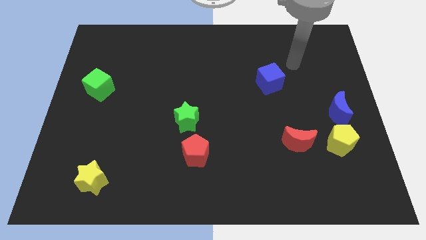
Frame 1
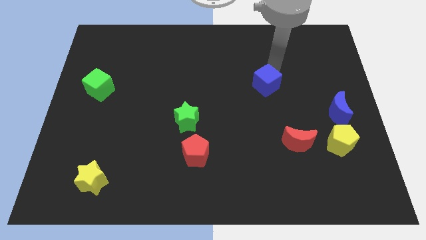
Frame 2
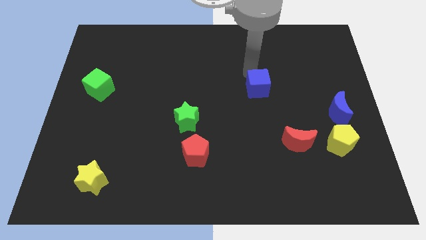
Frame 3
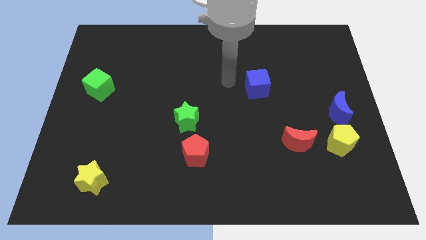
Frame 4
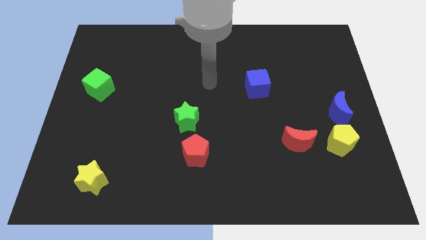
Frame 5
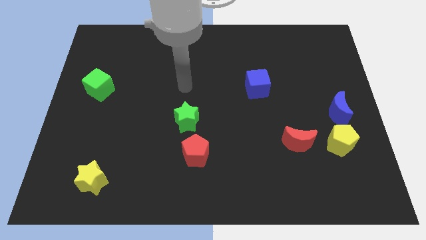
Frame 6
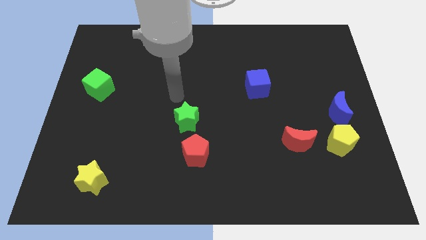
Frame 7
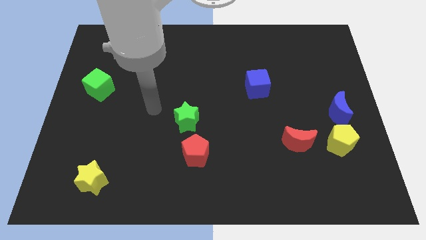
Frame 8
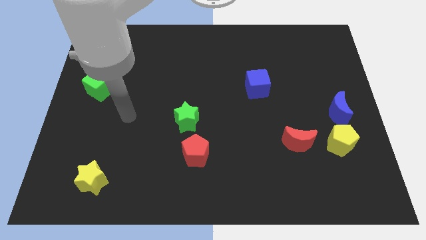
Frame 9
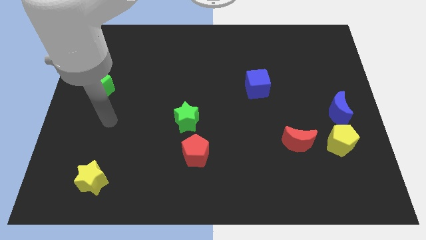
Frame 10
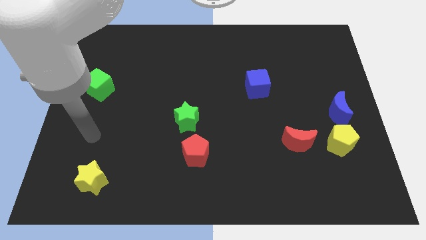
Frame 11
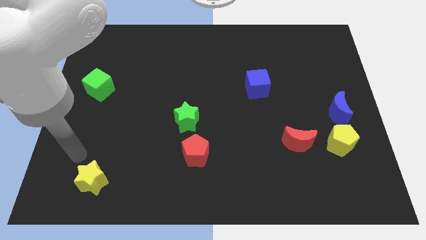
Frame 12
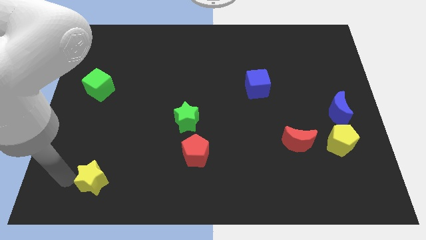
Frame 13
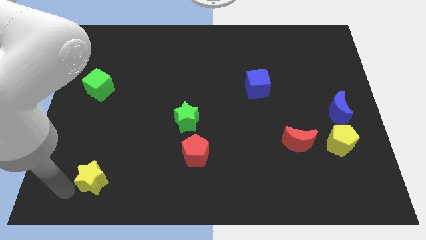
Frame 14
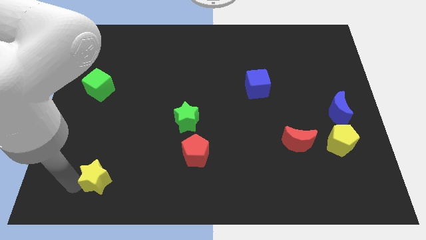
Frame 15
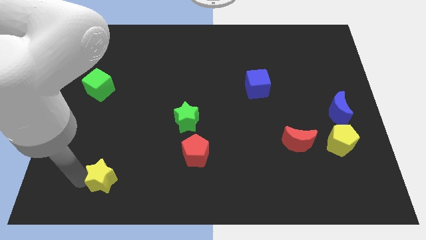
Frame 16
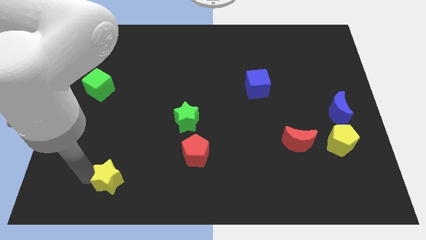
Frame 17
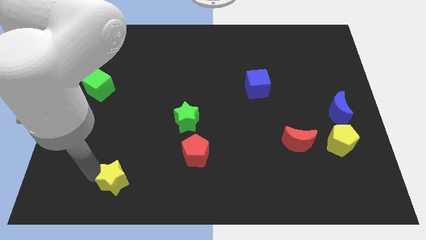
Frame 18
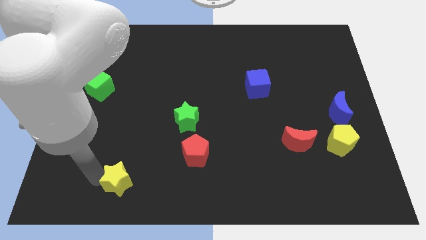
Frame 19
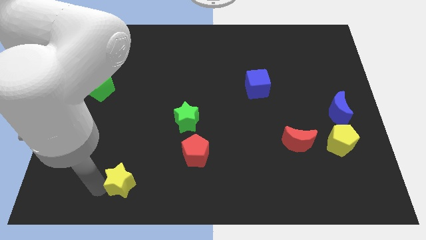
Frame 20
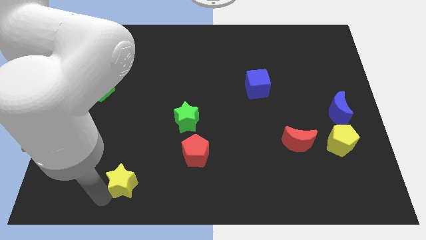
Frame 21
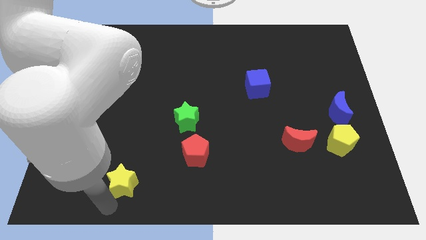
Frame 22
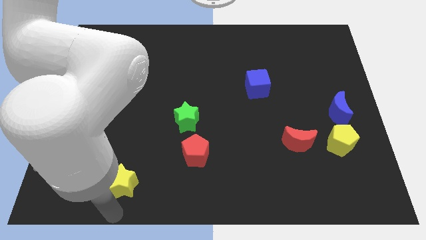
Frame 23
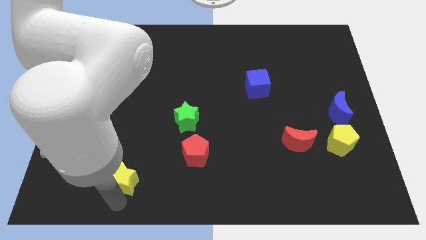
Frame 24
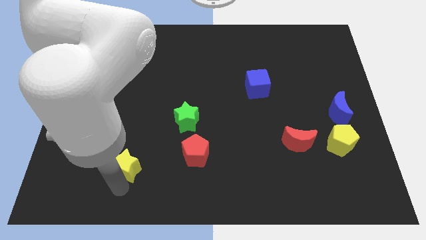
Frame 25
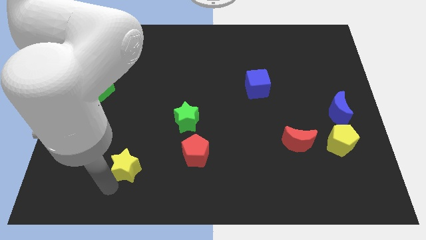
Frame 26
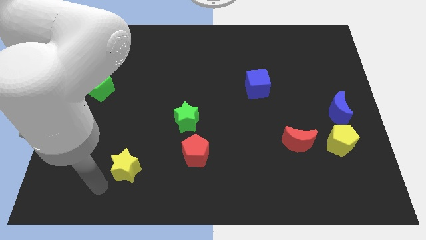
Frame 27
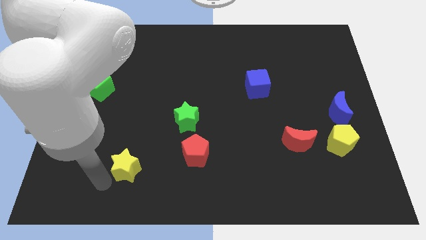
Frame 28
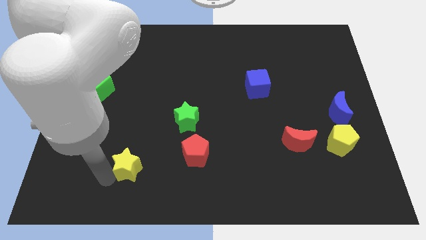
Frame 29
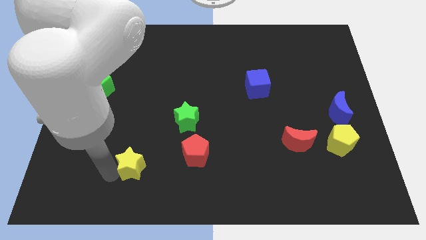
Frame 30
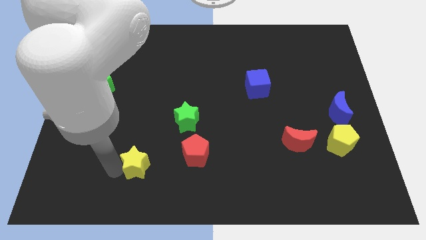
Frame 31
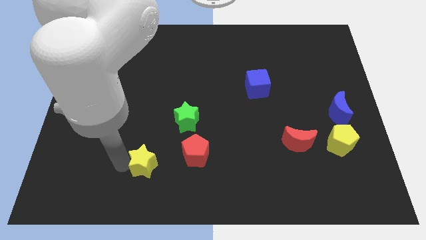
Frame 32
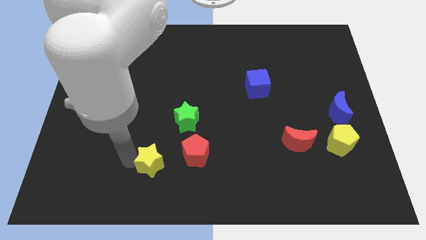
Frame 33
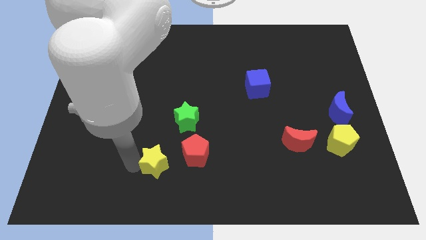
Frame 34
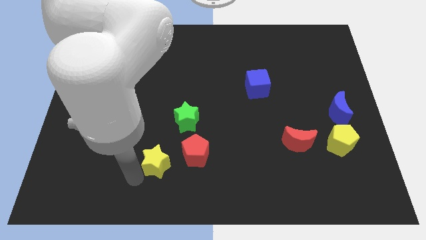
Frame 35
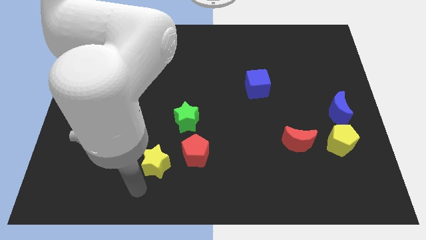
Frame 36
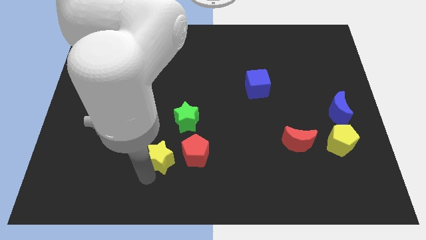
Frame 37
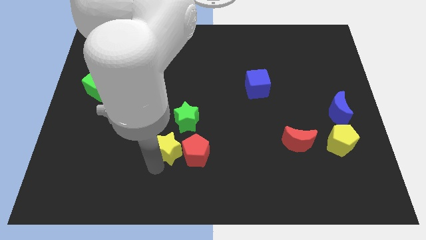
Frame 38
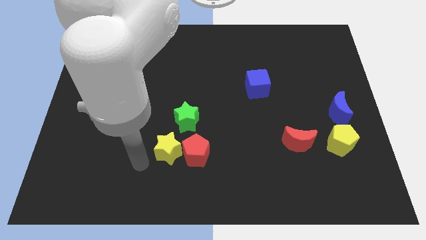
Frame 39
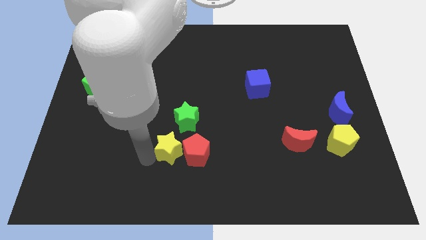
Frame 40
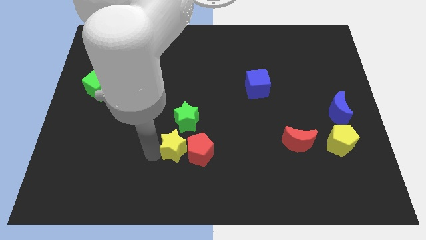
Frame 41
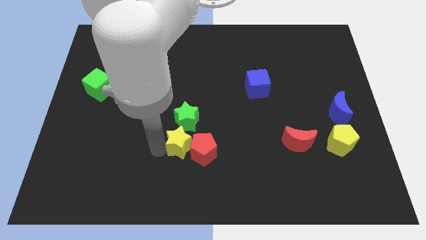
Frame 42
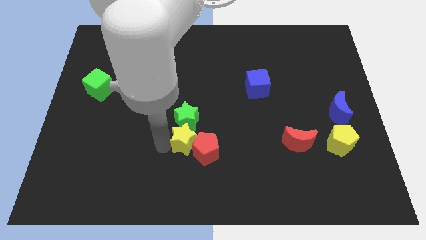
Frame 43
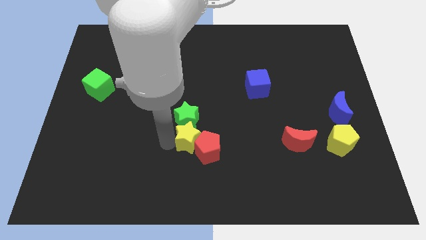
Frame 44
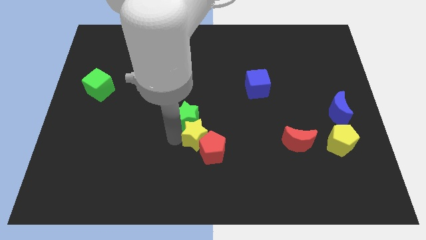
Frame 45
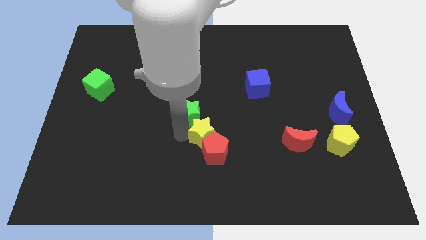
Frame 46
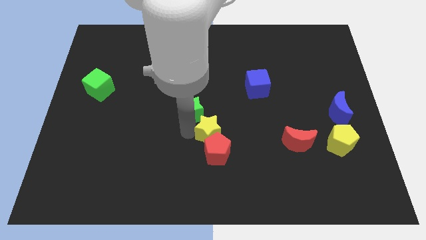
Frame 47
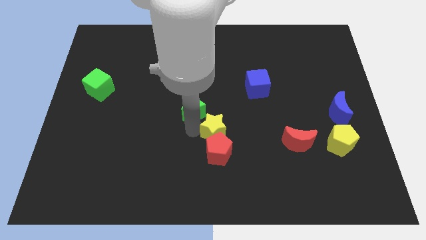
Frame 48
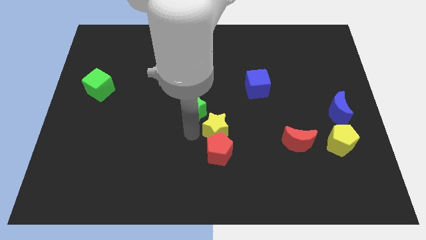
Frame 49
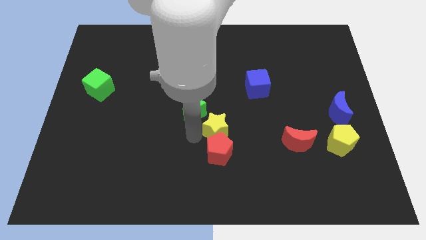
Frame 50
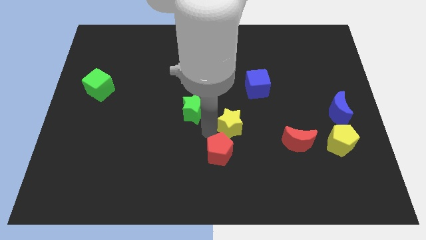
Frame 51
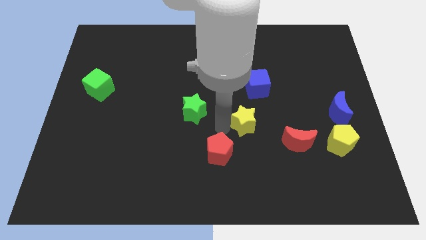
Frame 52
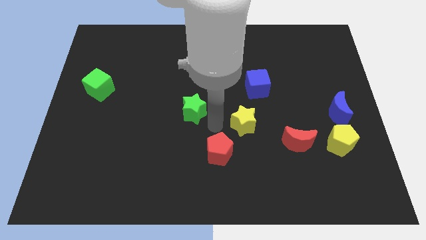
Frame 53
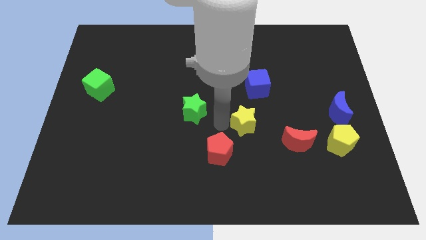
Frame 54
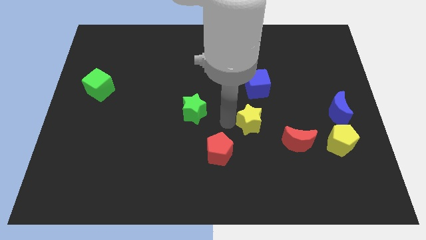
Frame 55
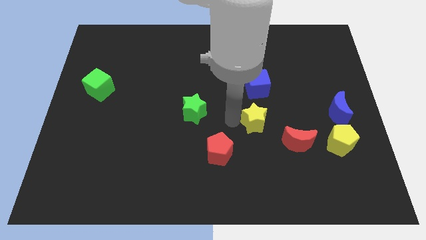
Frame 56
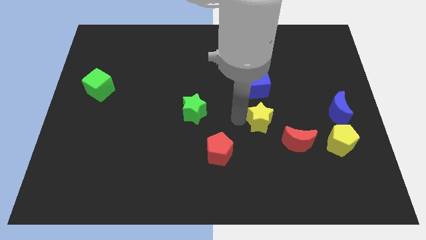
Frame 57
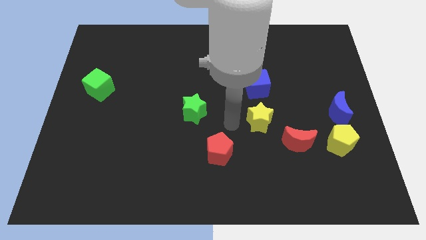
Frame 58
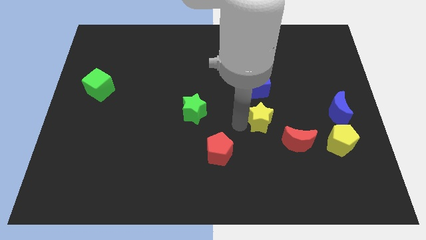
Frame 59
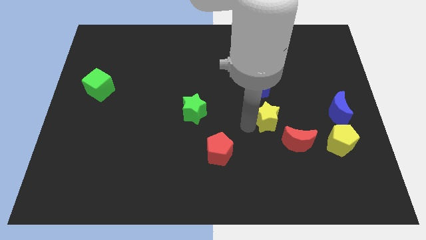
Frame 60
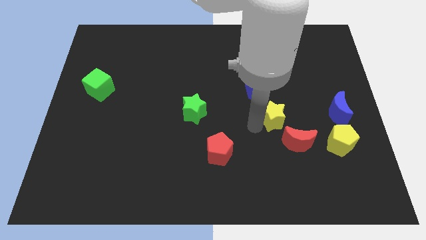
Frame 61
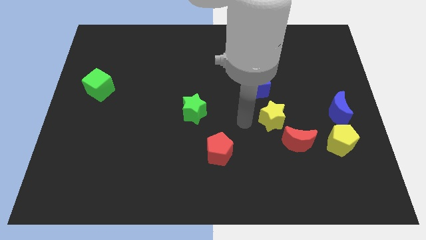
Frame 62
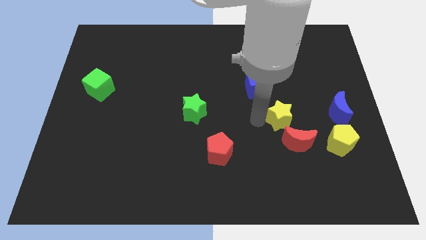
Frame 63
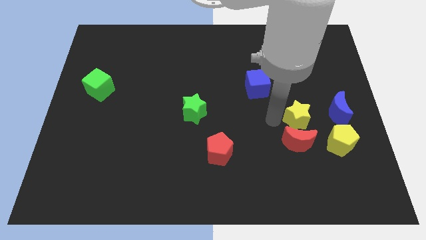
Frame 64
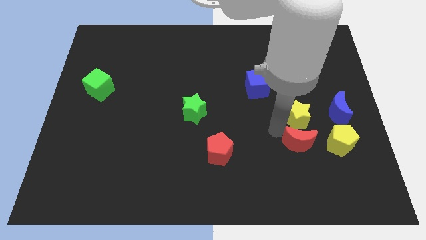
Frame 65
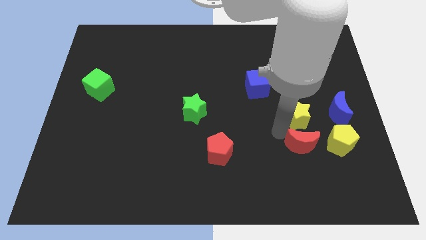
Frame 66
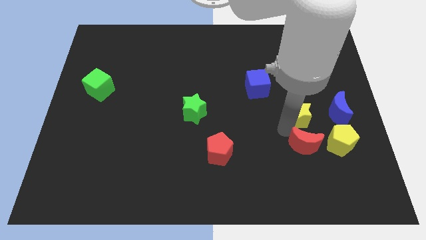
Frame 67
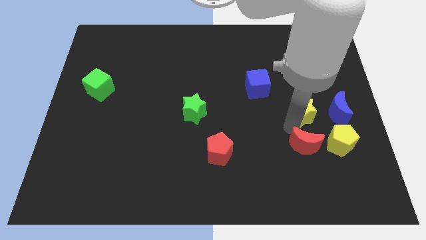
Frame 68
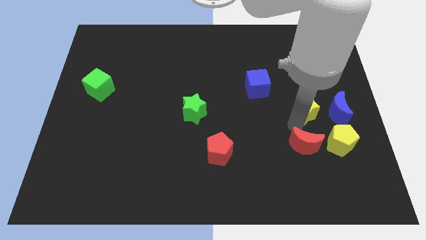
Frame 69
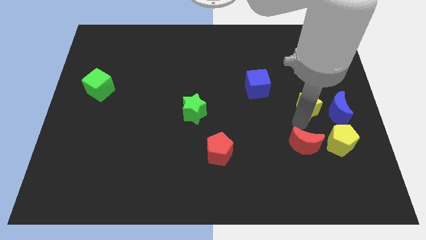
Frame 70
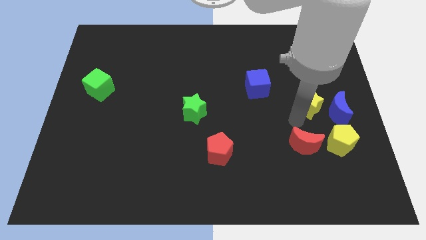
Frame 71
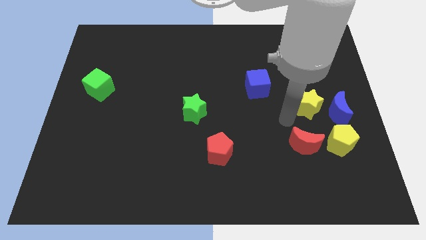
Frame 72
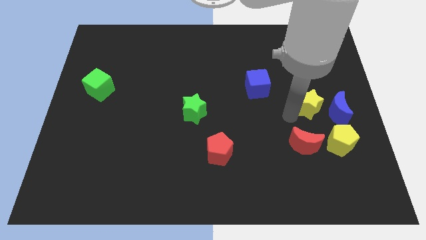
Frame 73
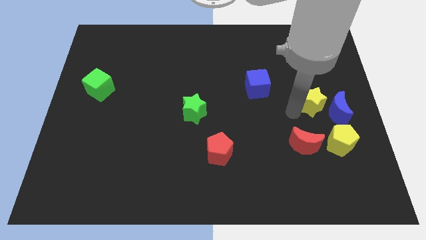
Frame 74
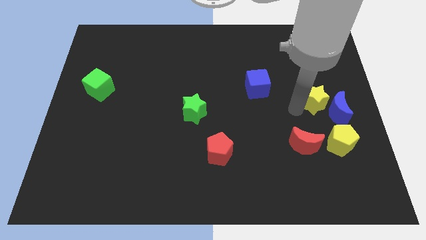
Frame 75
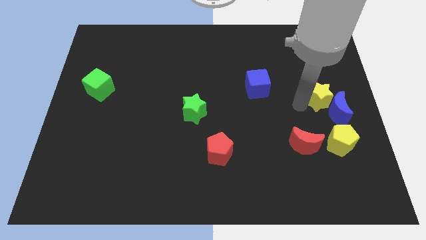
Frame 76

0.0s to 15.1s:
push the yellow star to the right side of the board
